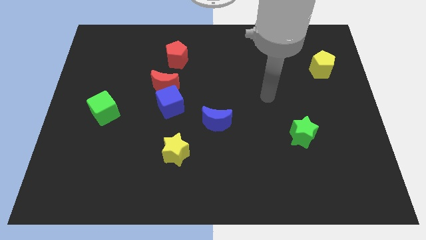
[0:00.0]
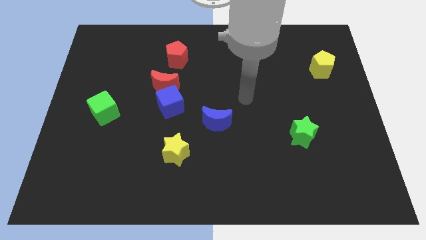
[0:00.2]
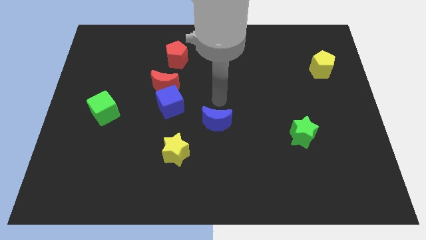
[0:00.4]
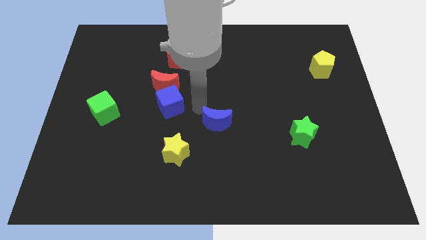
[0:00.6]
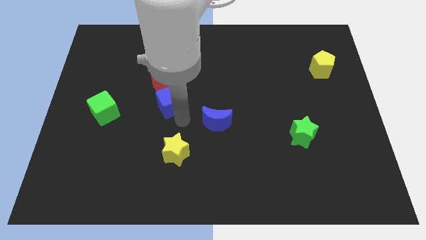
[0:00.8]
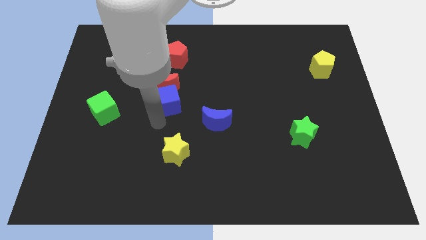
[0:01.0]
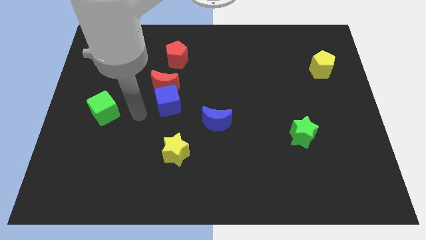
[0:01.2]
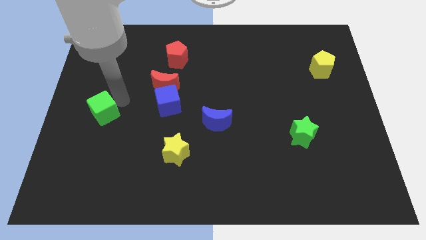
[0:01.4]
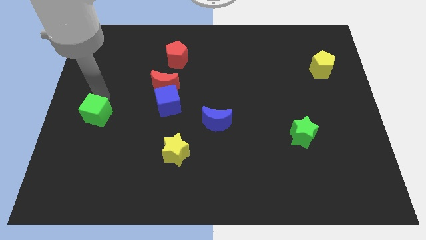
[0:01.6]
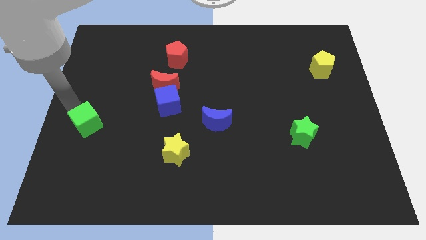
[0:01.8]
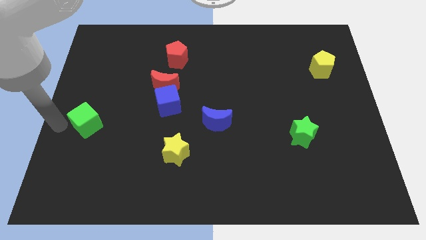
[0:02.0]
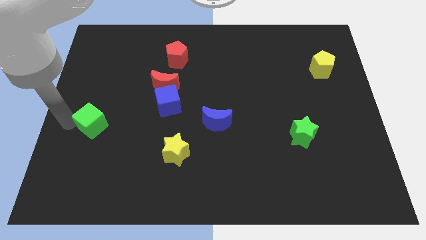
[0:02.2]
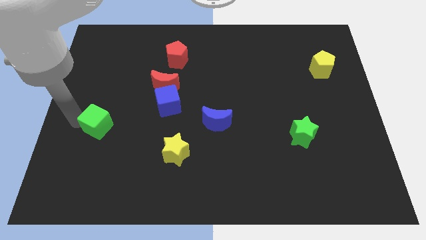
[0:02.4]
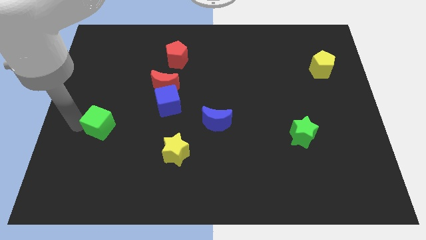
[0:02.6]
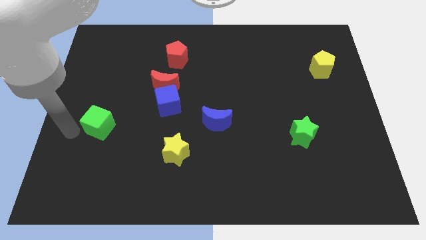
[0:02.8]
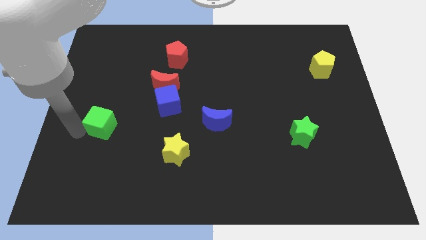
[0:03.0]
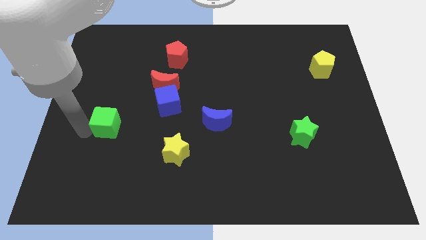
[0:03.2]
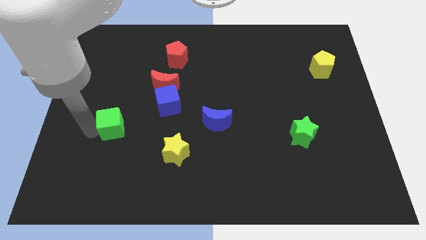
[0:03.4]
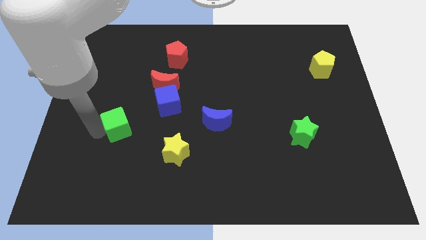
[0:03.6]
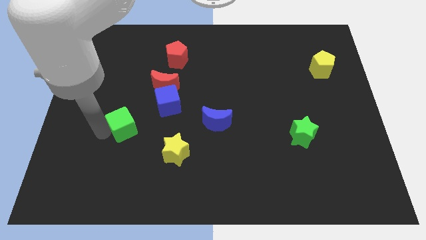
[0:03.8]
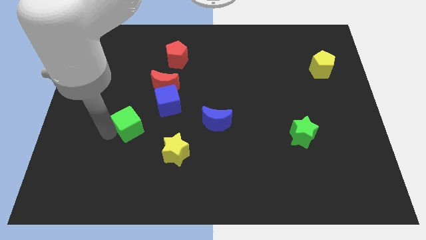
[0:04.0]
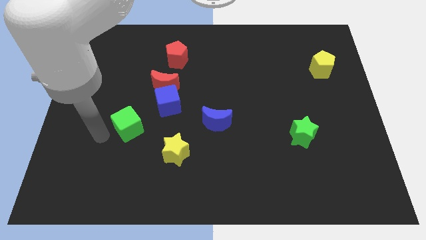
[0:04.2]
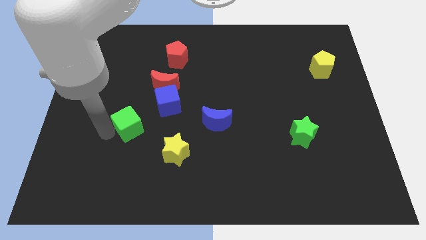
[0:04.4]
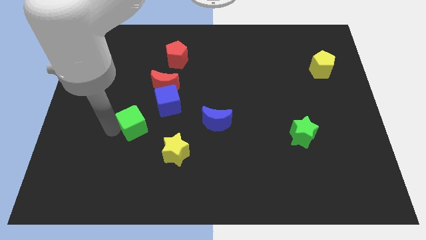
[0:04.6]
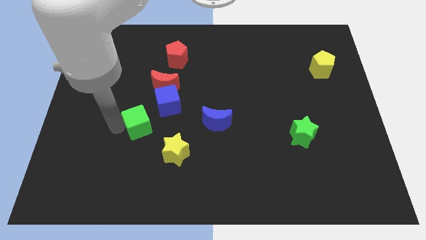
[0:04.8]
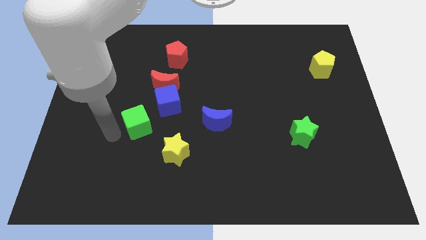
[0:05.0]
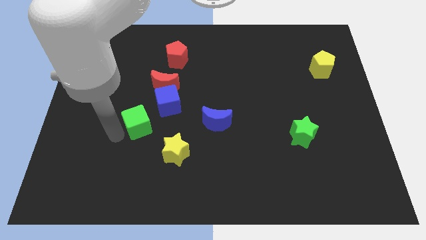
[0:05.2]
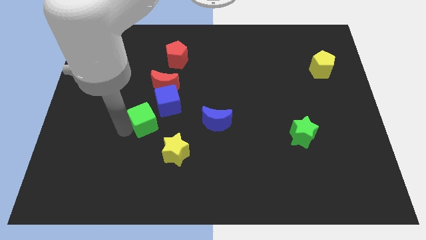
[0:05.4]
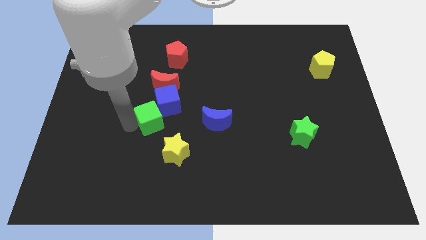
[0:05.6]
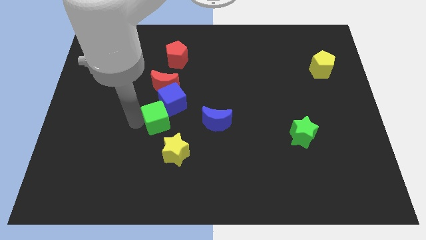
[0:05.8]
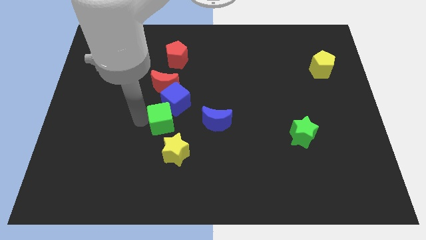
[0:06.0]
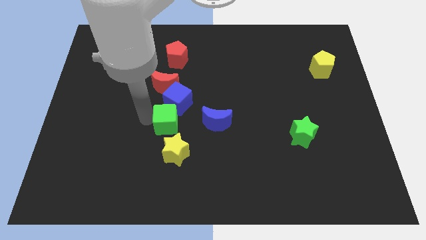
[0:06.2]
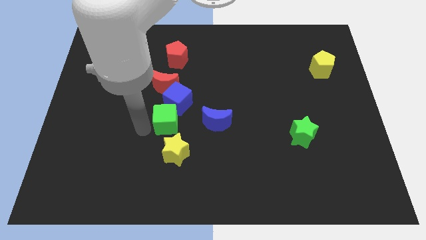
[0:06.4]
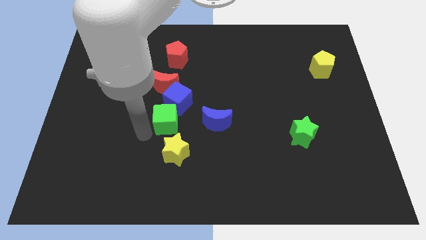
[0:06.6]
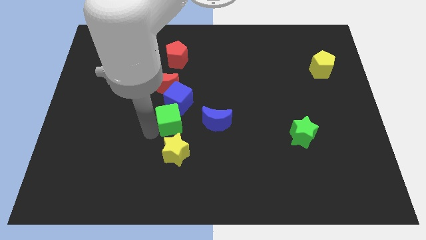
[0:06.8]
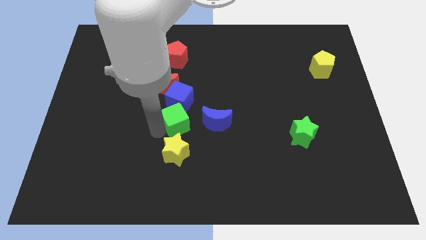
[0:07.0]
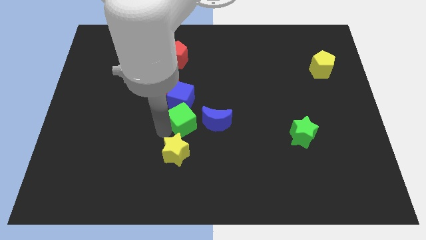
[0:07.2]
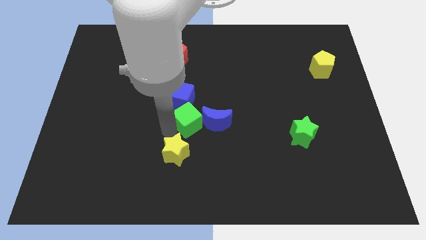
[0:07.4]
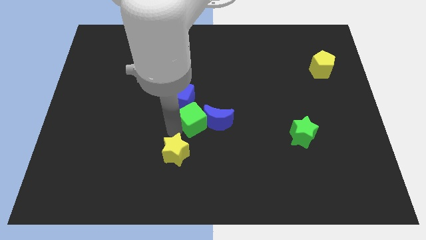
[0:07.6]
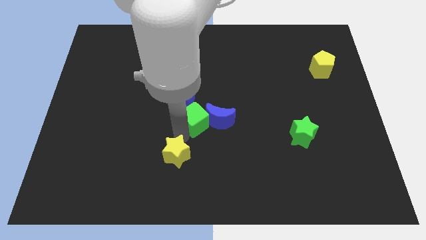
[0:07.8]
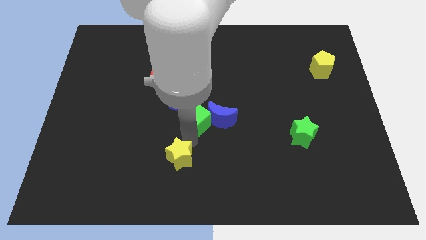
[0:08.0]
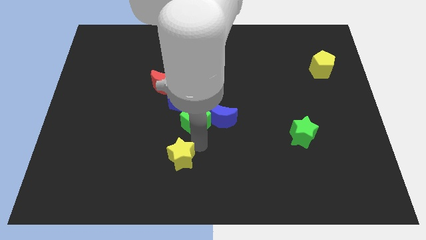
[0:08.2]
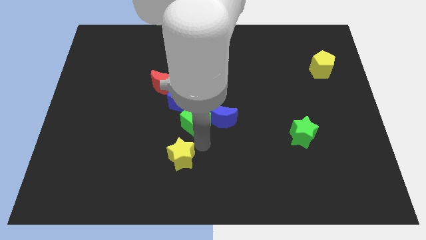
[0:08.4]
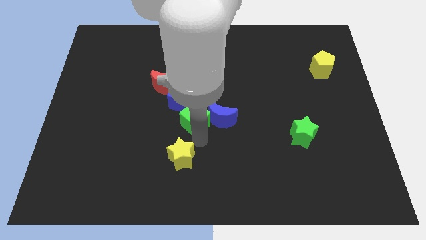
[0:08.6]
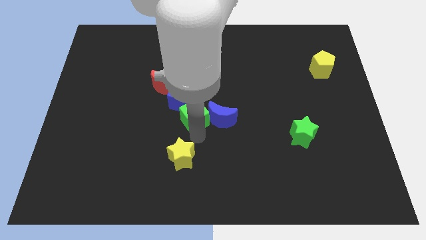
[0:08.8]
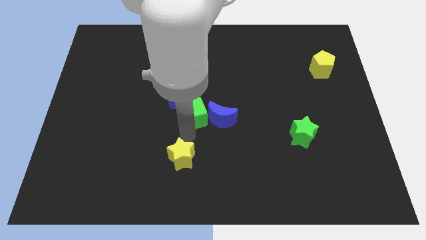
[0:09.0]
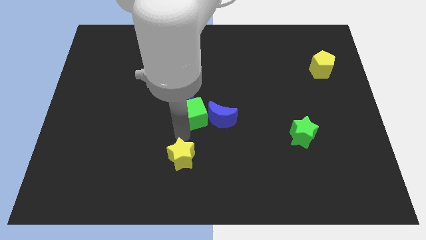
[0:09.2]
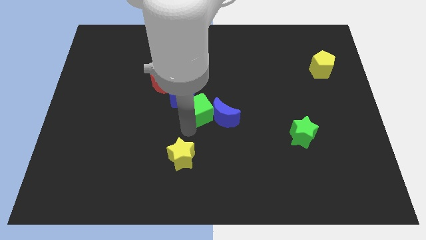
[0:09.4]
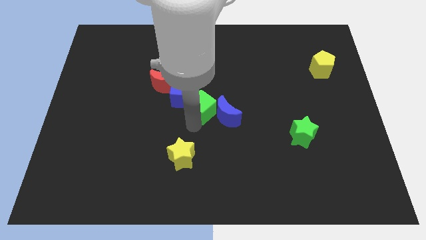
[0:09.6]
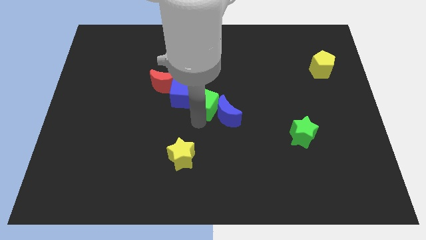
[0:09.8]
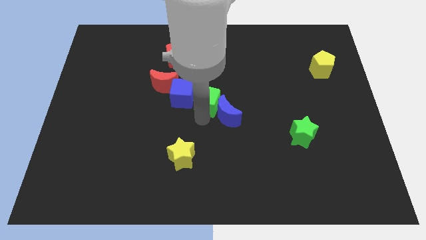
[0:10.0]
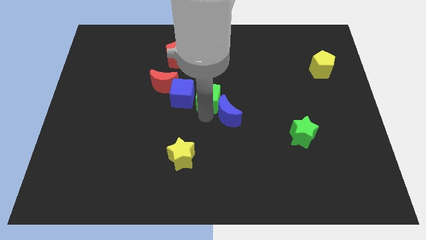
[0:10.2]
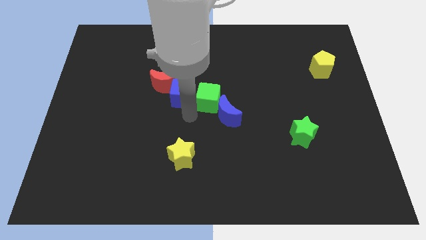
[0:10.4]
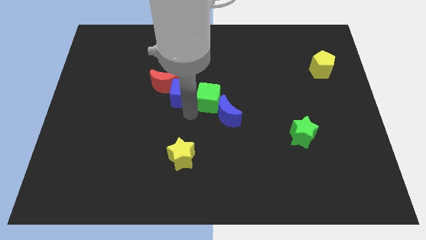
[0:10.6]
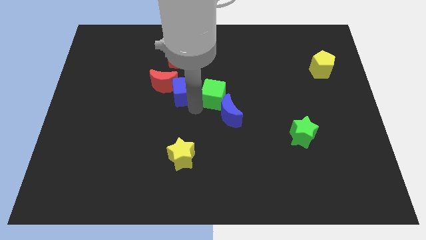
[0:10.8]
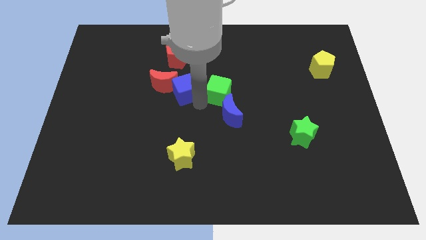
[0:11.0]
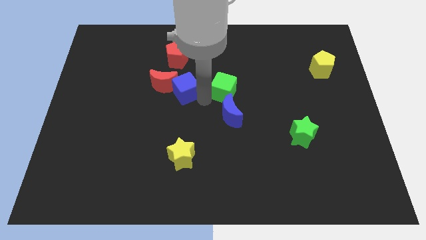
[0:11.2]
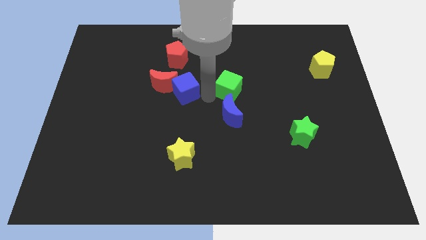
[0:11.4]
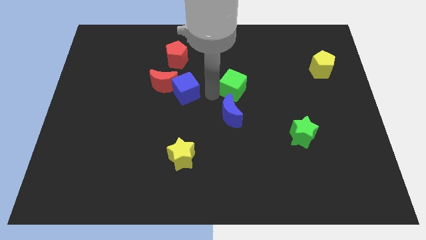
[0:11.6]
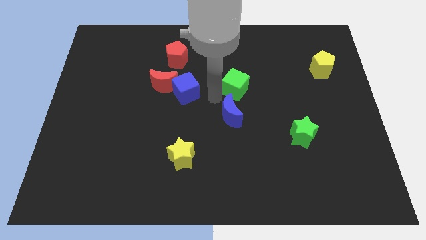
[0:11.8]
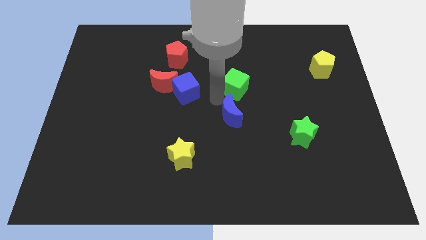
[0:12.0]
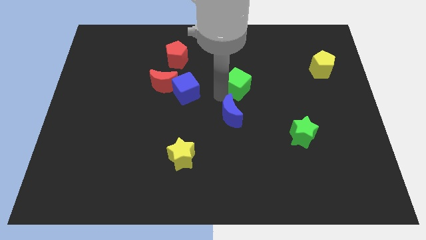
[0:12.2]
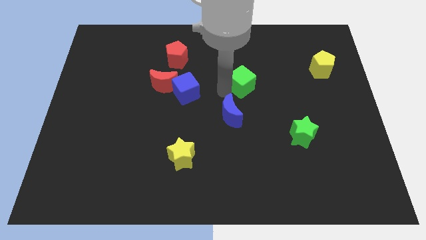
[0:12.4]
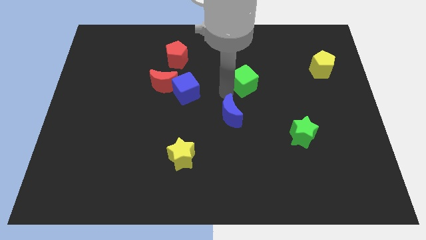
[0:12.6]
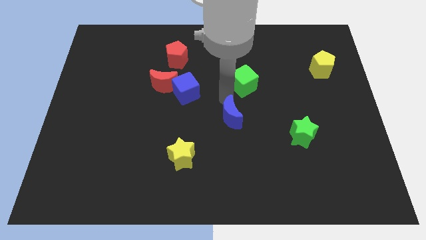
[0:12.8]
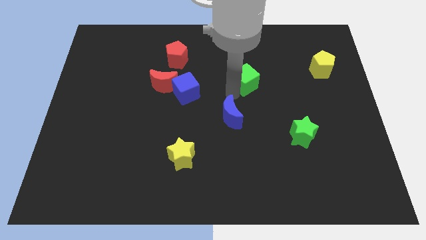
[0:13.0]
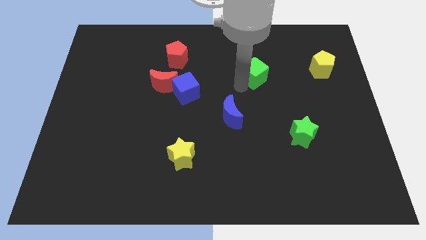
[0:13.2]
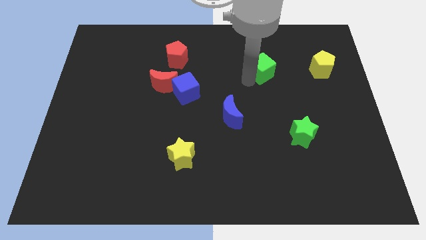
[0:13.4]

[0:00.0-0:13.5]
move the green cube to the left of the yellow pentagon

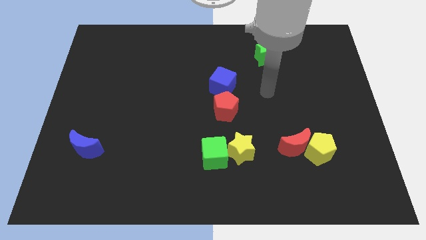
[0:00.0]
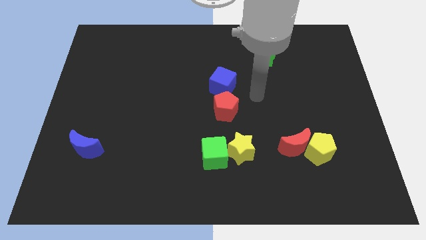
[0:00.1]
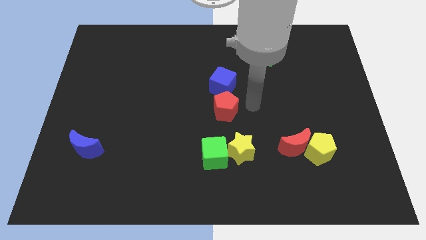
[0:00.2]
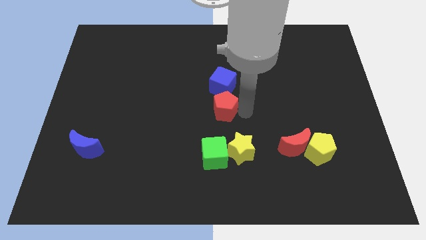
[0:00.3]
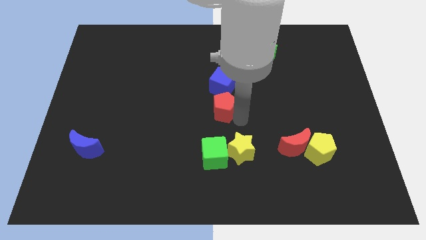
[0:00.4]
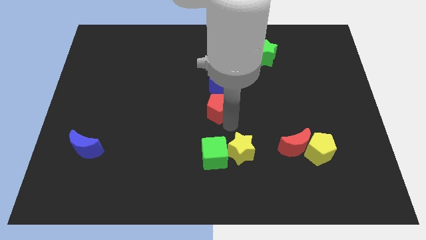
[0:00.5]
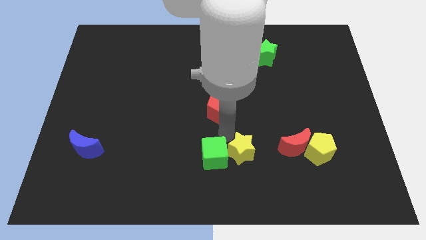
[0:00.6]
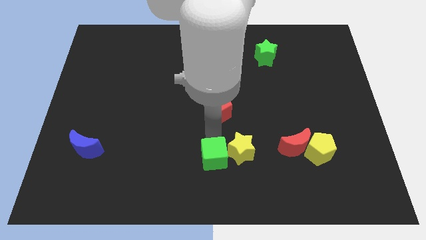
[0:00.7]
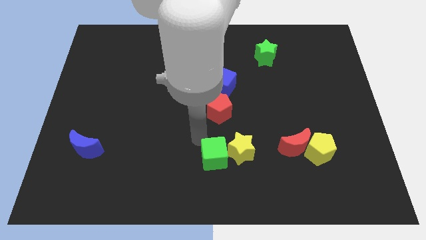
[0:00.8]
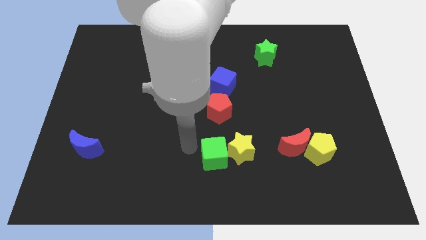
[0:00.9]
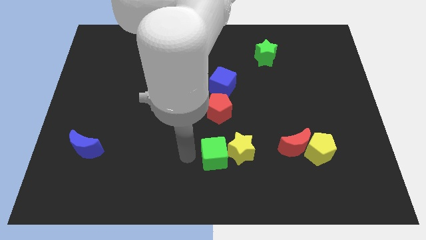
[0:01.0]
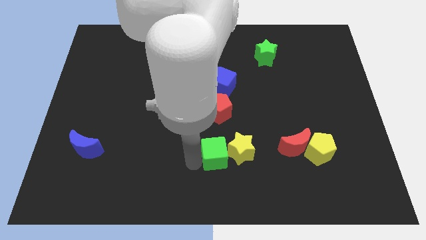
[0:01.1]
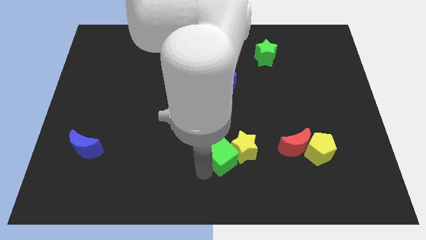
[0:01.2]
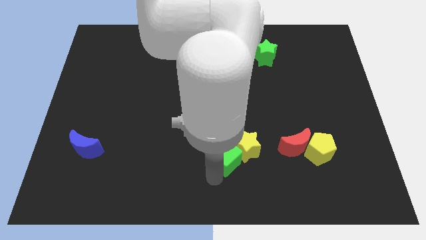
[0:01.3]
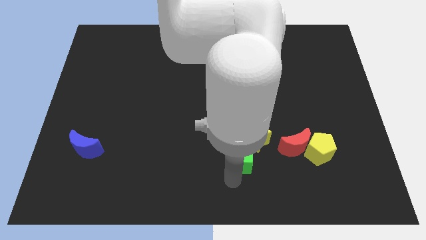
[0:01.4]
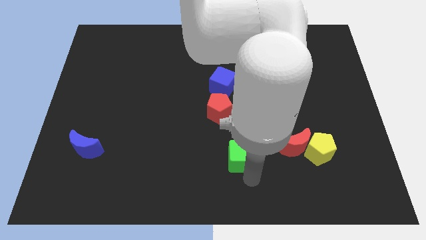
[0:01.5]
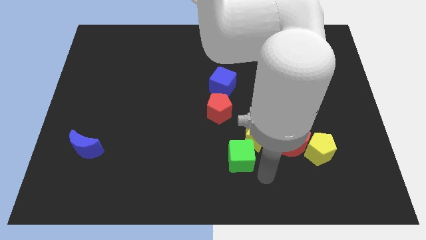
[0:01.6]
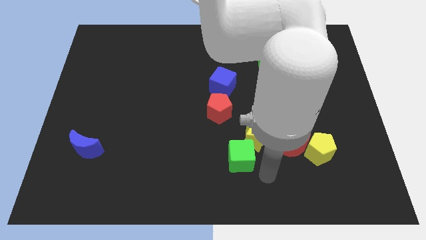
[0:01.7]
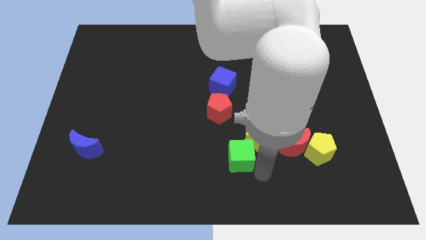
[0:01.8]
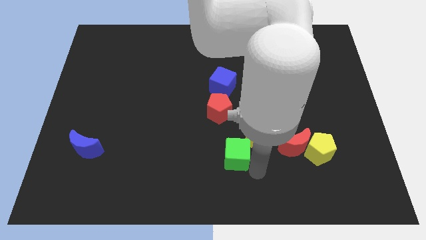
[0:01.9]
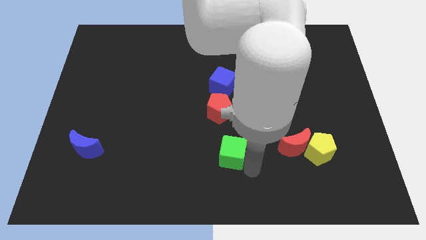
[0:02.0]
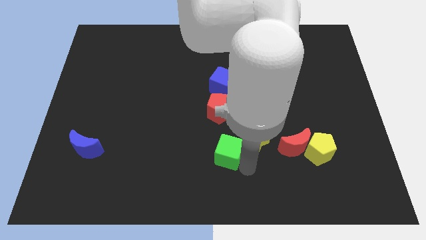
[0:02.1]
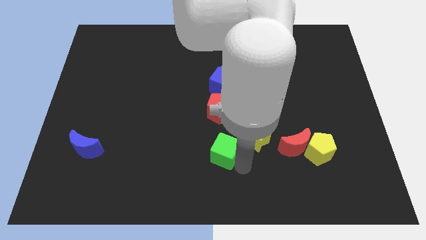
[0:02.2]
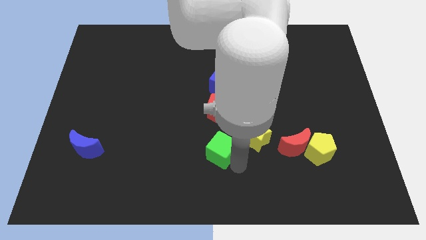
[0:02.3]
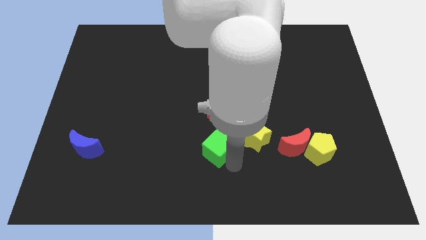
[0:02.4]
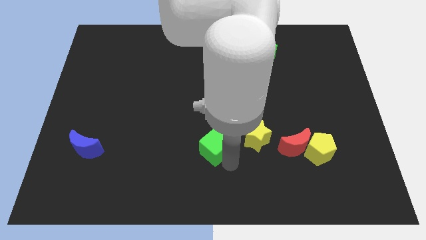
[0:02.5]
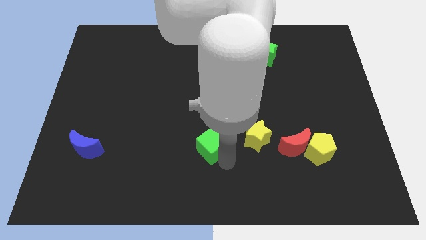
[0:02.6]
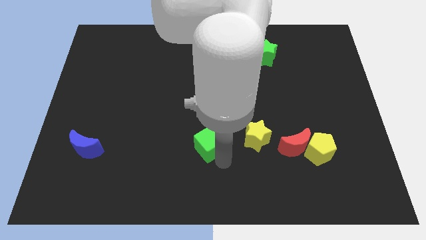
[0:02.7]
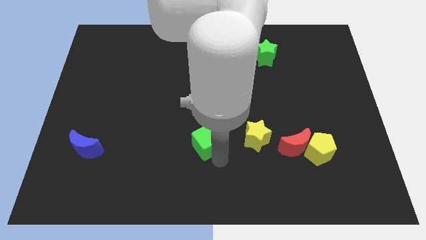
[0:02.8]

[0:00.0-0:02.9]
move the green cube to the bottom left side of the red pentagon
